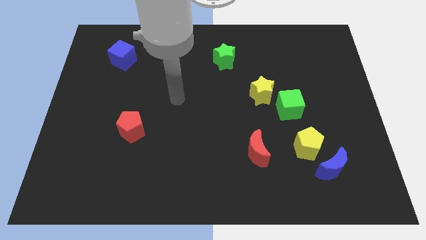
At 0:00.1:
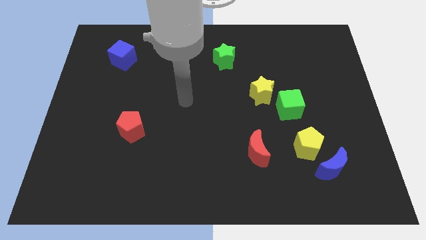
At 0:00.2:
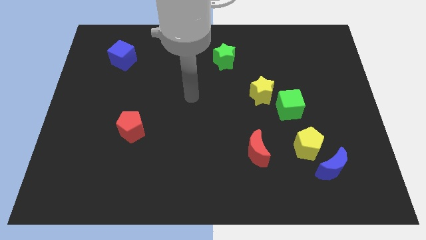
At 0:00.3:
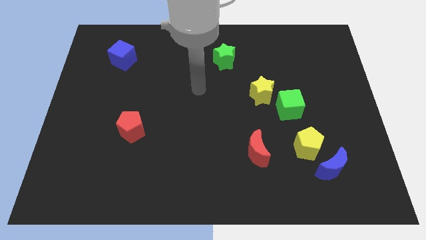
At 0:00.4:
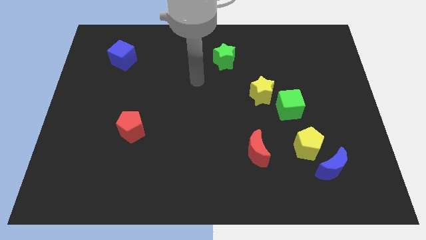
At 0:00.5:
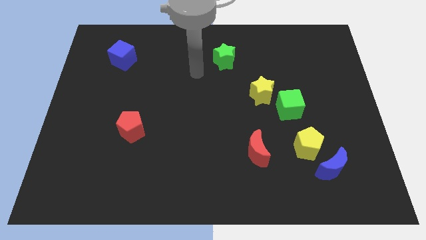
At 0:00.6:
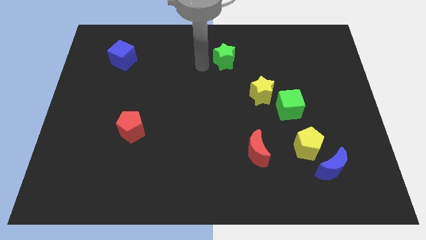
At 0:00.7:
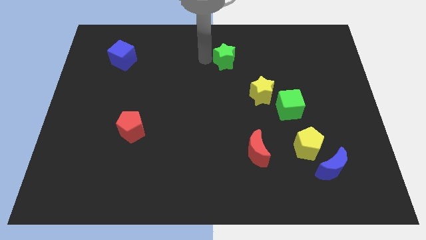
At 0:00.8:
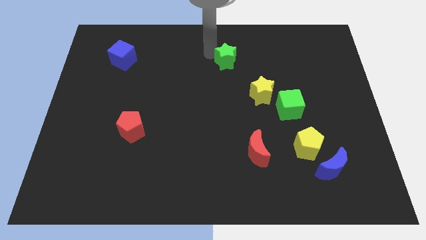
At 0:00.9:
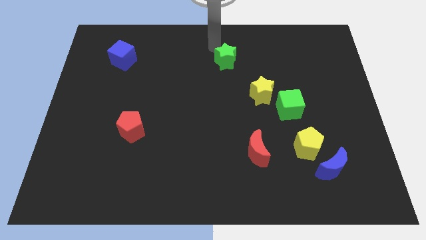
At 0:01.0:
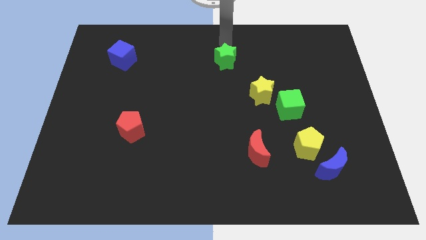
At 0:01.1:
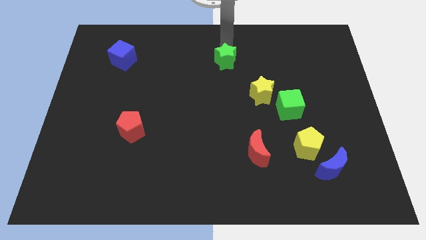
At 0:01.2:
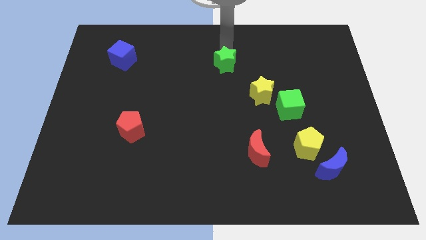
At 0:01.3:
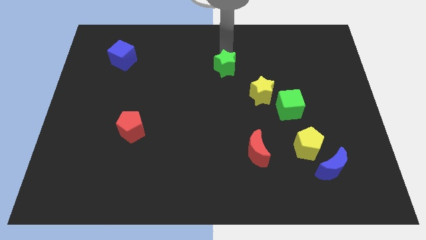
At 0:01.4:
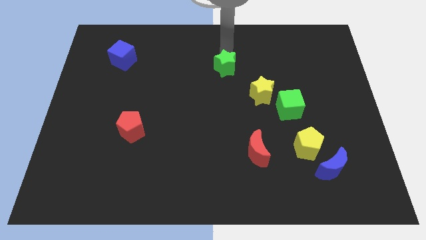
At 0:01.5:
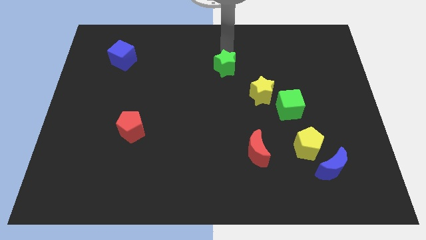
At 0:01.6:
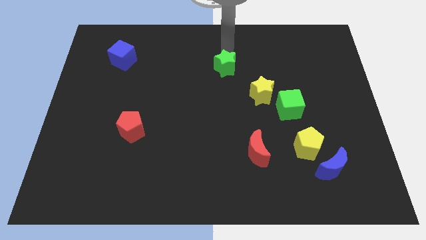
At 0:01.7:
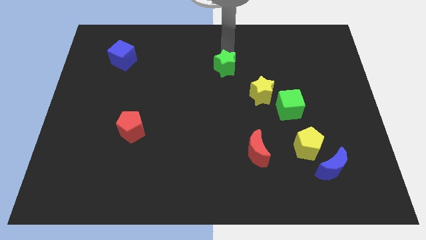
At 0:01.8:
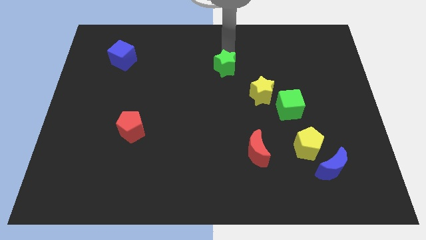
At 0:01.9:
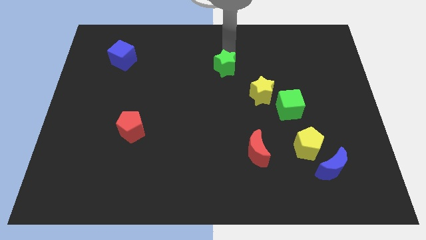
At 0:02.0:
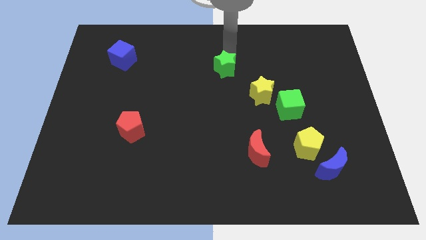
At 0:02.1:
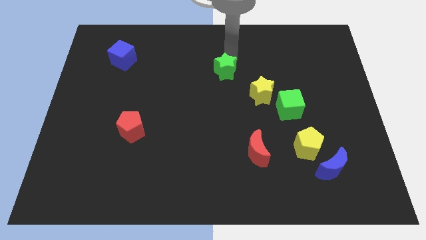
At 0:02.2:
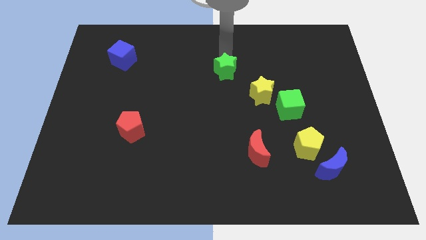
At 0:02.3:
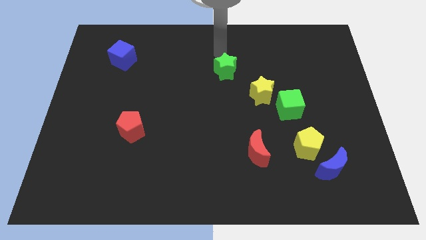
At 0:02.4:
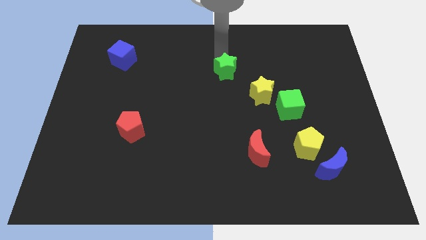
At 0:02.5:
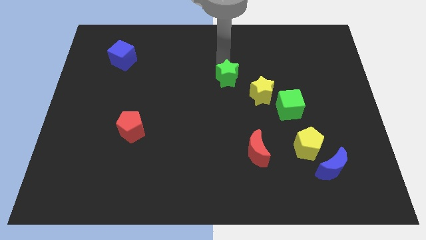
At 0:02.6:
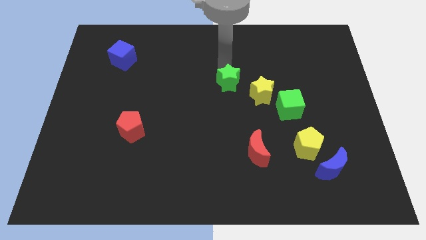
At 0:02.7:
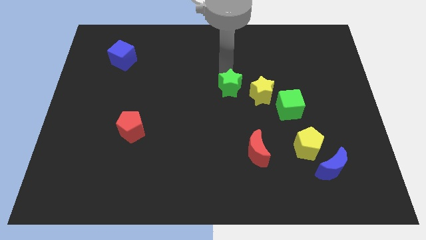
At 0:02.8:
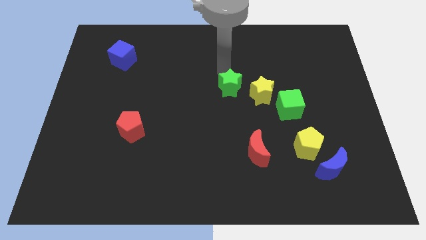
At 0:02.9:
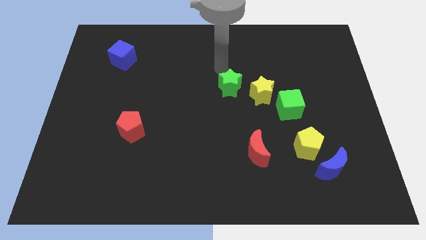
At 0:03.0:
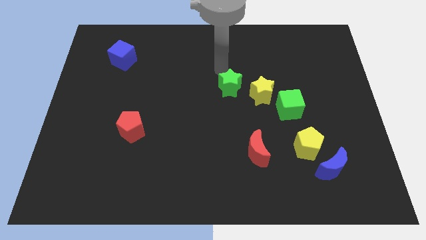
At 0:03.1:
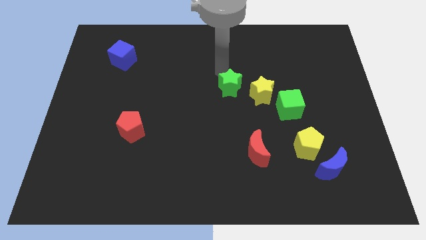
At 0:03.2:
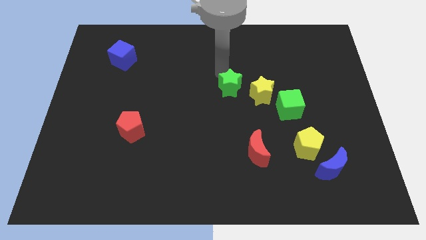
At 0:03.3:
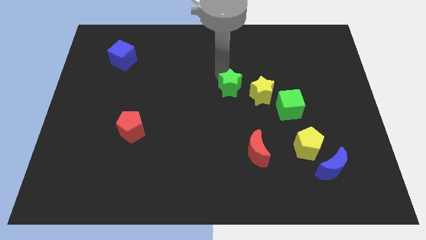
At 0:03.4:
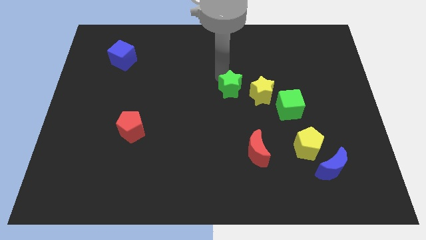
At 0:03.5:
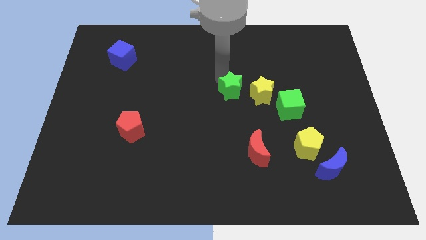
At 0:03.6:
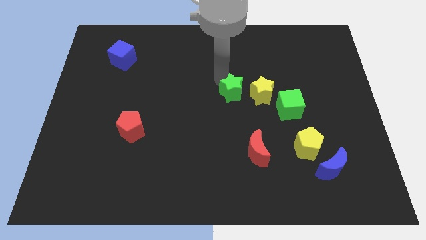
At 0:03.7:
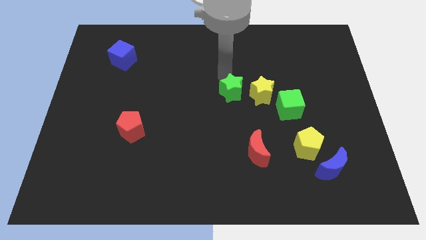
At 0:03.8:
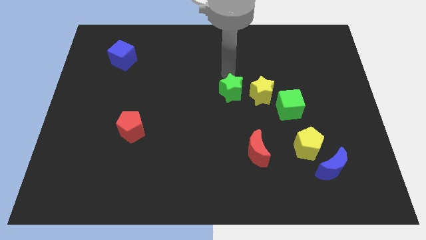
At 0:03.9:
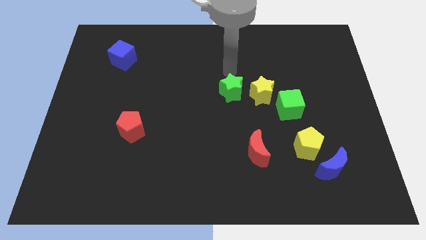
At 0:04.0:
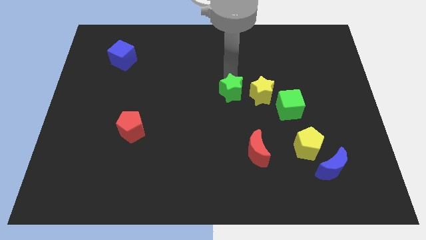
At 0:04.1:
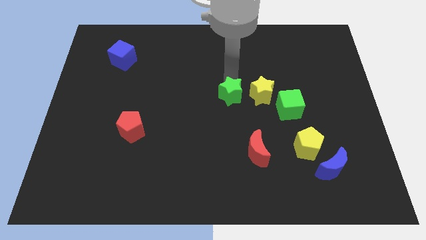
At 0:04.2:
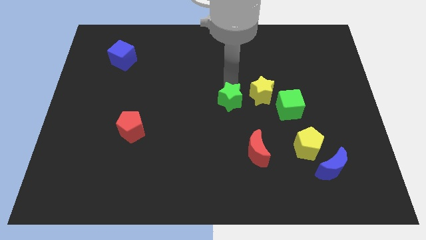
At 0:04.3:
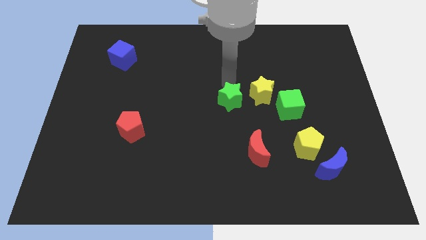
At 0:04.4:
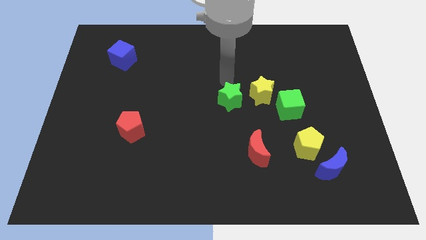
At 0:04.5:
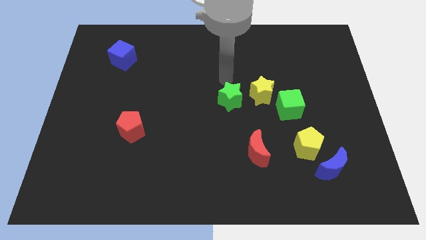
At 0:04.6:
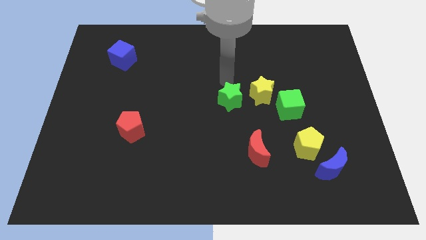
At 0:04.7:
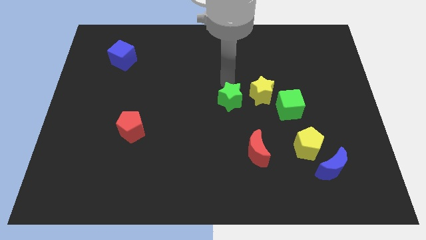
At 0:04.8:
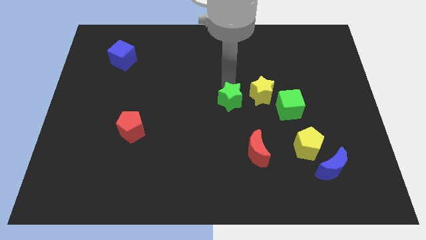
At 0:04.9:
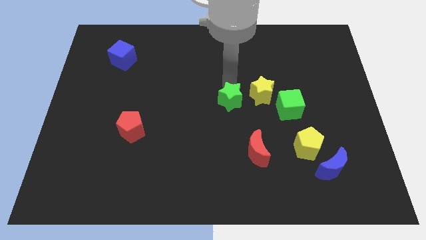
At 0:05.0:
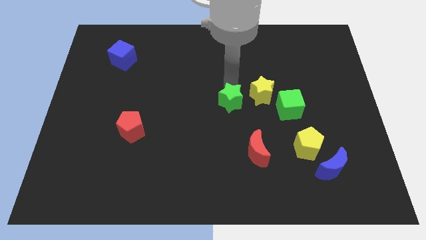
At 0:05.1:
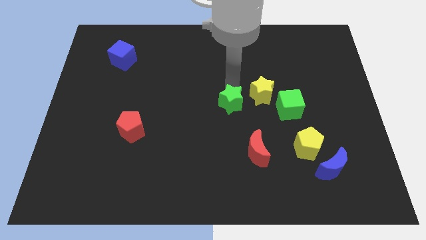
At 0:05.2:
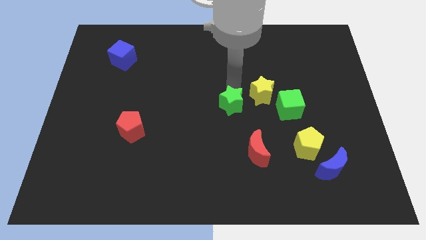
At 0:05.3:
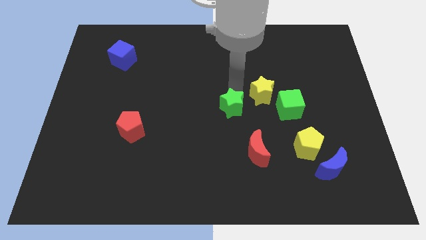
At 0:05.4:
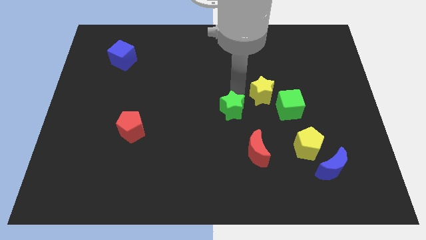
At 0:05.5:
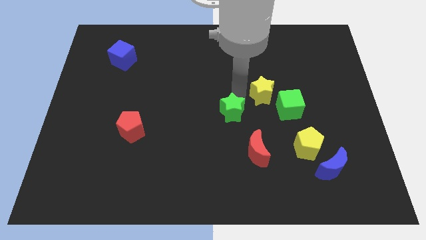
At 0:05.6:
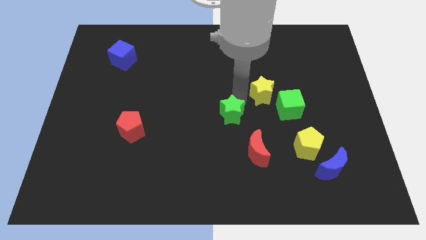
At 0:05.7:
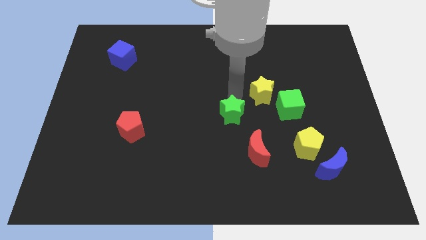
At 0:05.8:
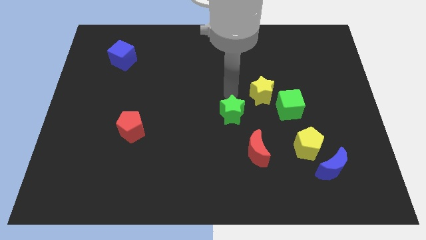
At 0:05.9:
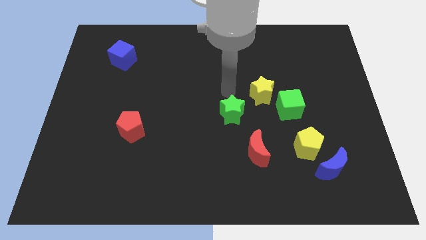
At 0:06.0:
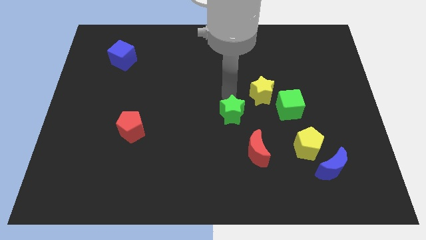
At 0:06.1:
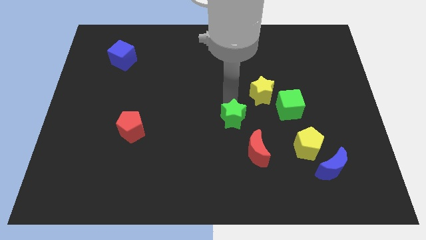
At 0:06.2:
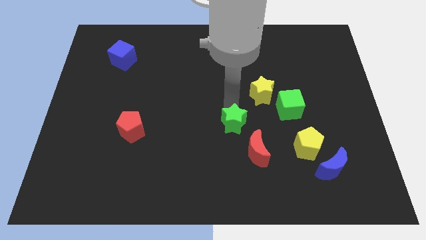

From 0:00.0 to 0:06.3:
push the green star down

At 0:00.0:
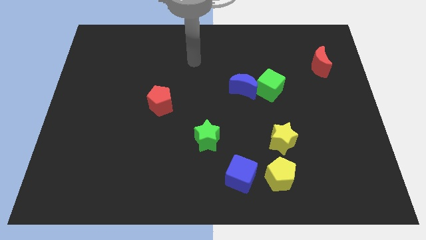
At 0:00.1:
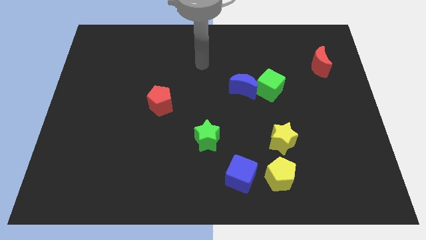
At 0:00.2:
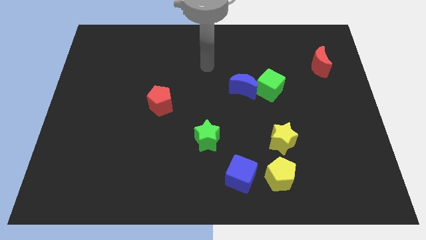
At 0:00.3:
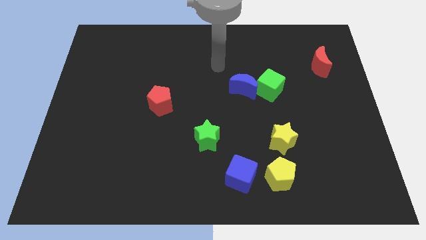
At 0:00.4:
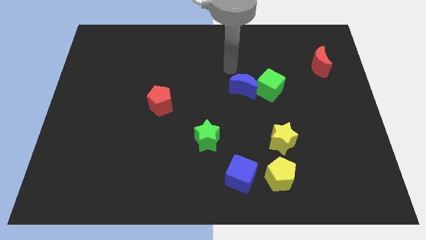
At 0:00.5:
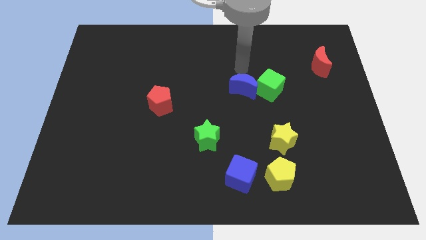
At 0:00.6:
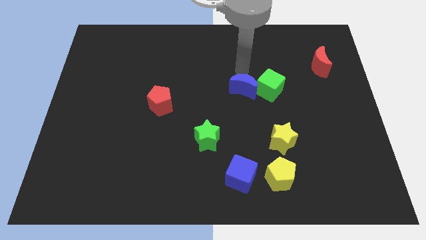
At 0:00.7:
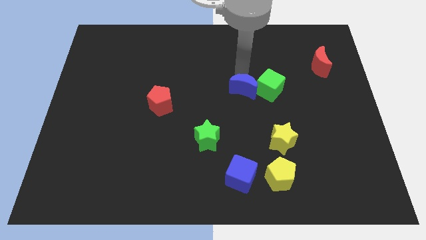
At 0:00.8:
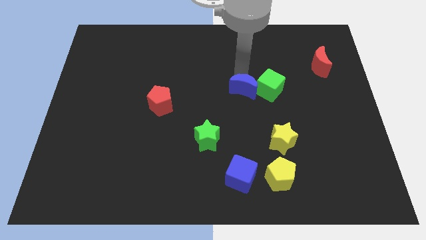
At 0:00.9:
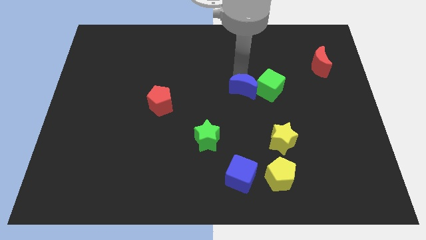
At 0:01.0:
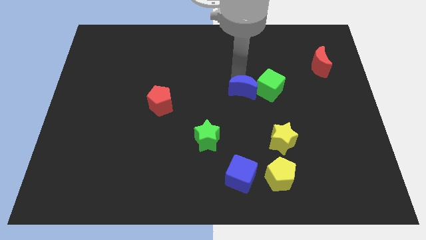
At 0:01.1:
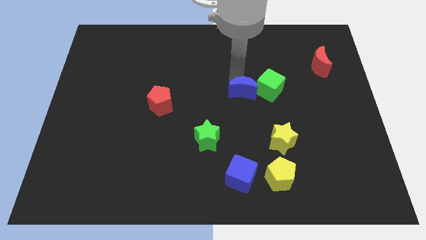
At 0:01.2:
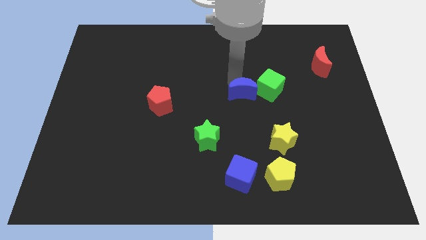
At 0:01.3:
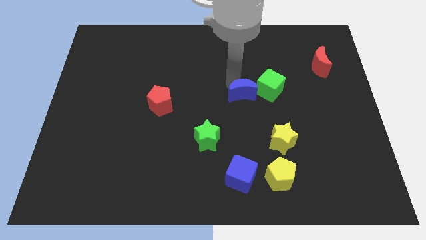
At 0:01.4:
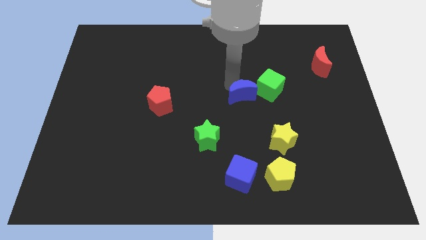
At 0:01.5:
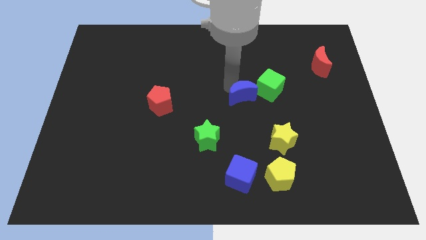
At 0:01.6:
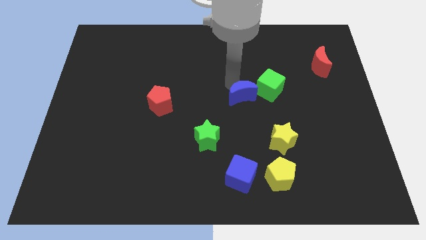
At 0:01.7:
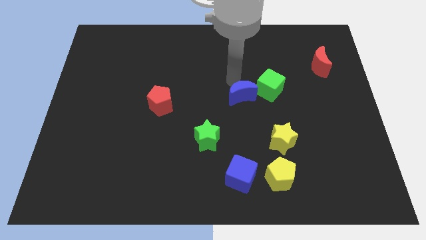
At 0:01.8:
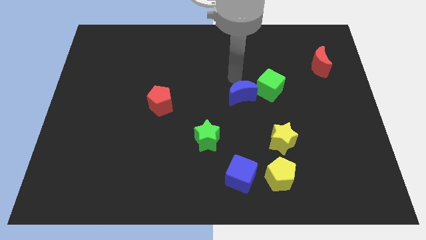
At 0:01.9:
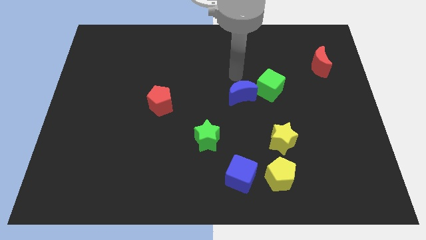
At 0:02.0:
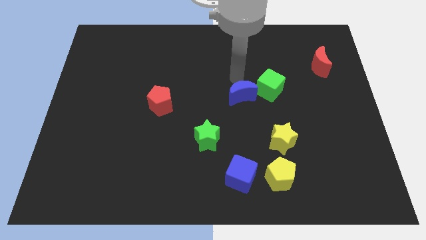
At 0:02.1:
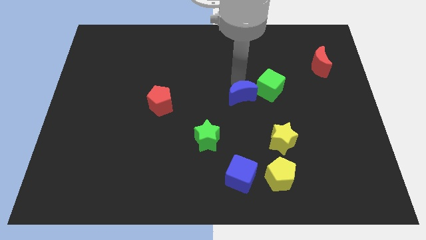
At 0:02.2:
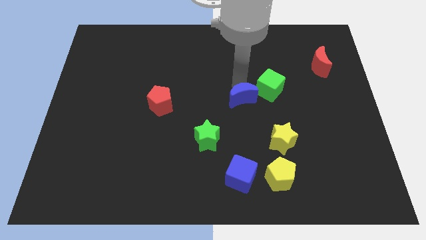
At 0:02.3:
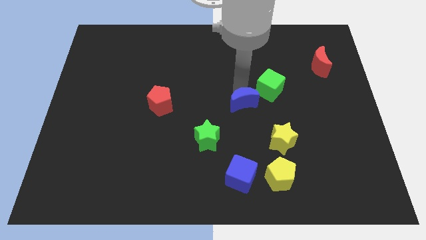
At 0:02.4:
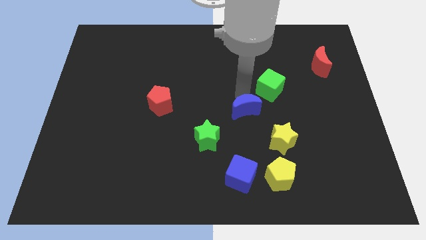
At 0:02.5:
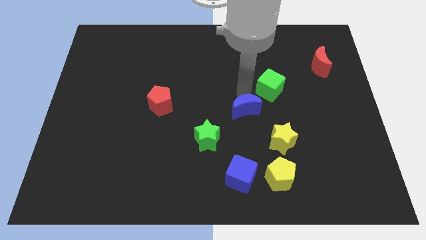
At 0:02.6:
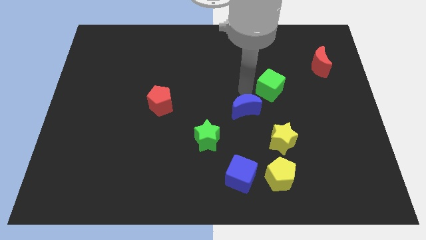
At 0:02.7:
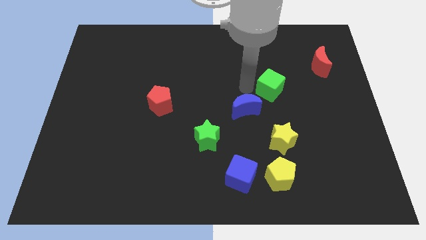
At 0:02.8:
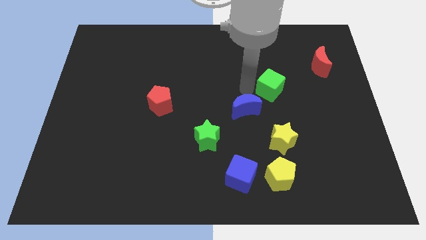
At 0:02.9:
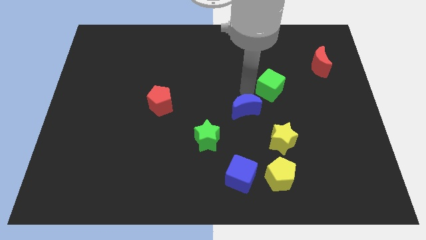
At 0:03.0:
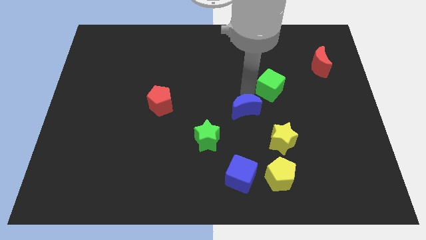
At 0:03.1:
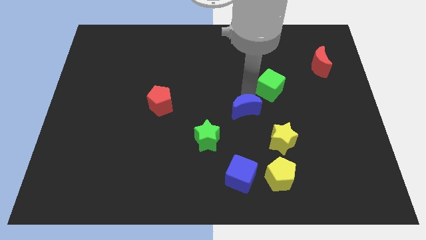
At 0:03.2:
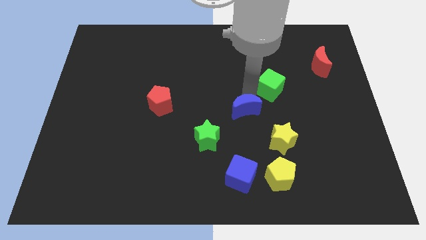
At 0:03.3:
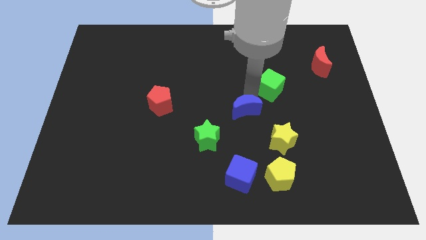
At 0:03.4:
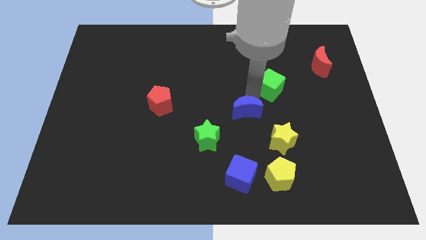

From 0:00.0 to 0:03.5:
slightly push the blue moon down
